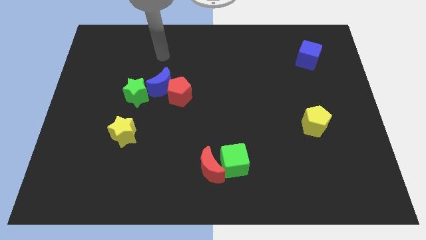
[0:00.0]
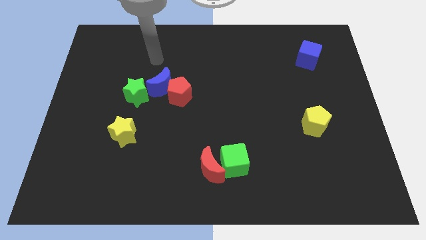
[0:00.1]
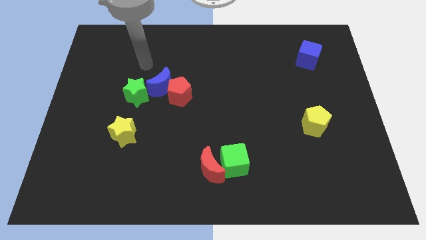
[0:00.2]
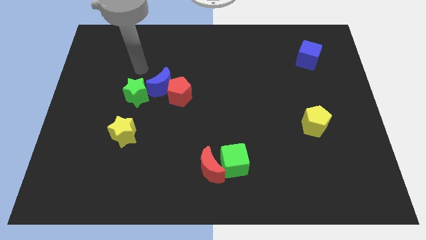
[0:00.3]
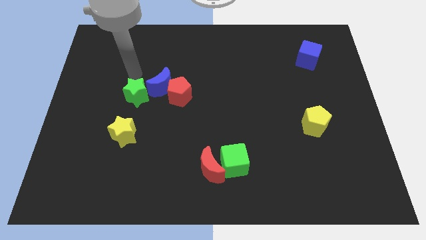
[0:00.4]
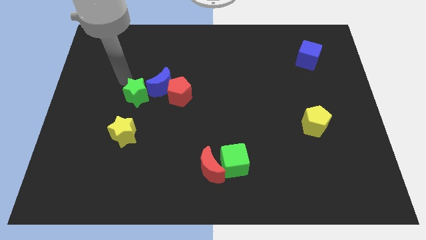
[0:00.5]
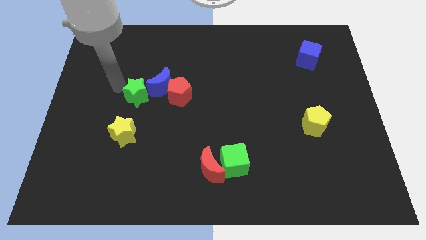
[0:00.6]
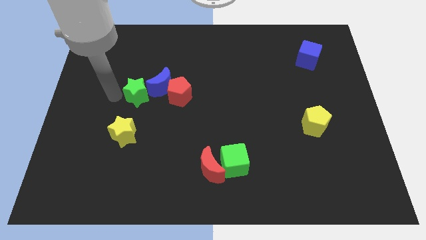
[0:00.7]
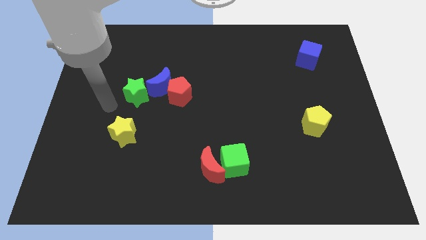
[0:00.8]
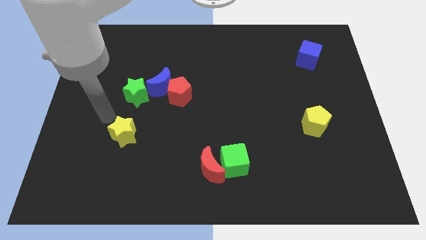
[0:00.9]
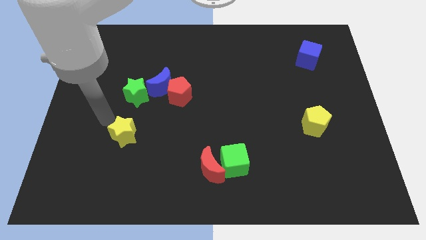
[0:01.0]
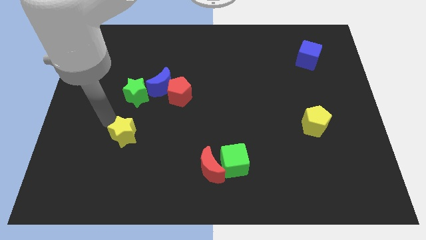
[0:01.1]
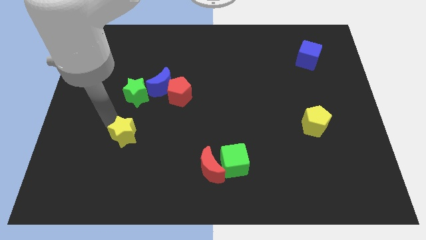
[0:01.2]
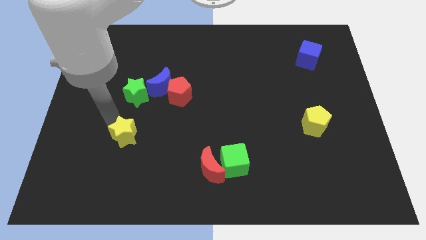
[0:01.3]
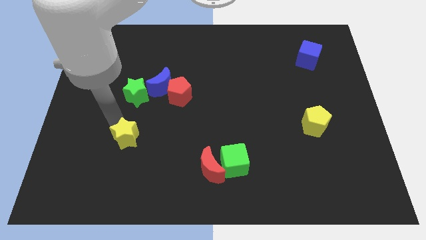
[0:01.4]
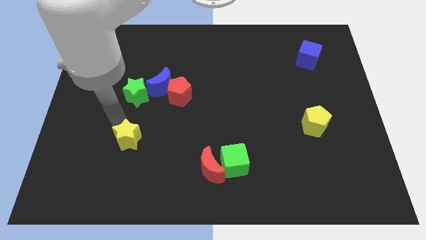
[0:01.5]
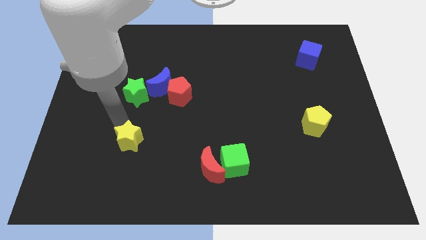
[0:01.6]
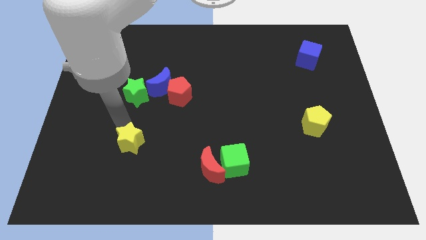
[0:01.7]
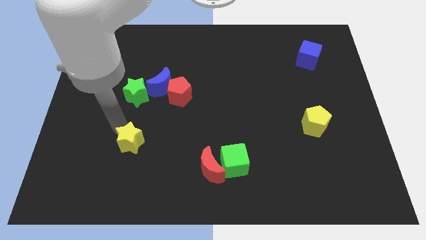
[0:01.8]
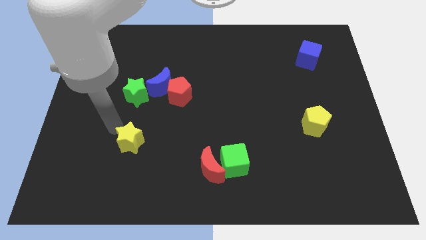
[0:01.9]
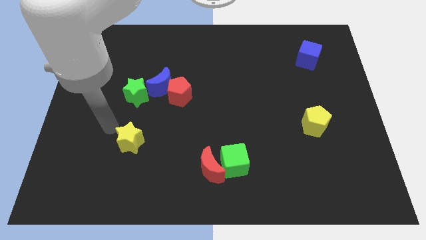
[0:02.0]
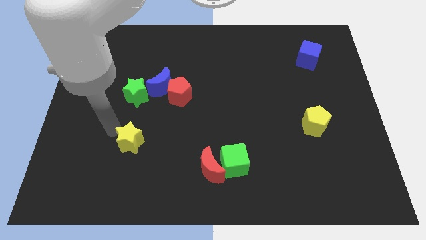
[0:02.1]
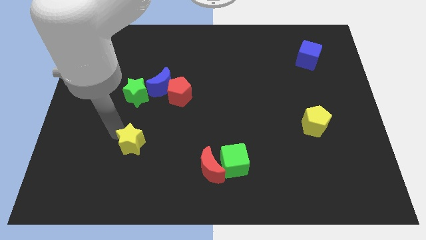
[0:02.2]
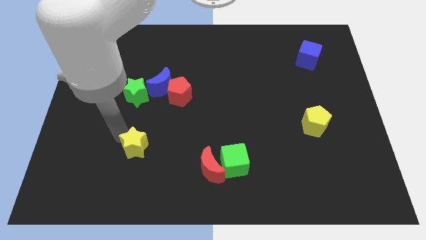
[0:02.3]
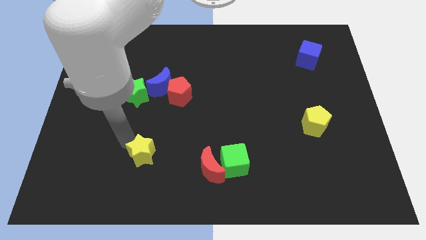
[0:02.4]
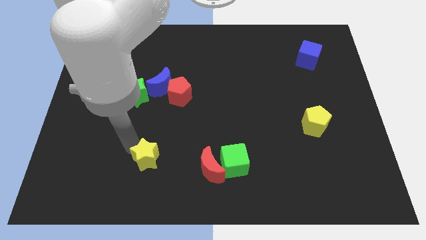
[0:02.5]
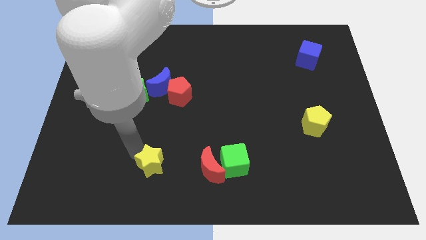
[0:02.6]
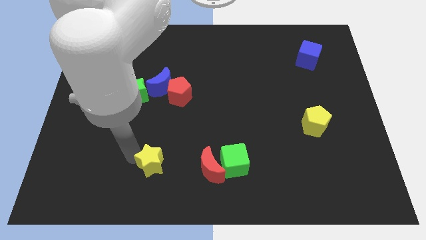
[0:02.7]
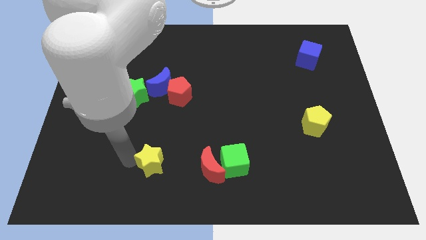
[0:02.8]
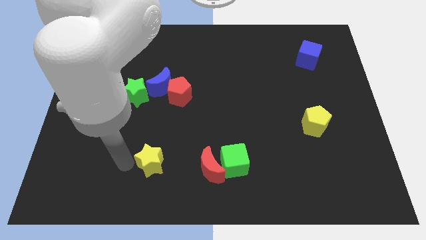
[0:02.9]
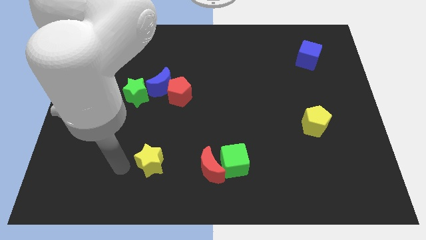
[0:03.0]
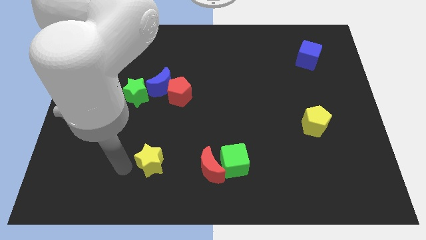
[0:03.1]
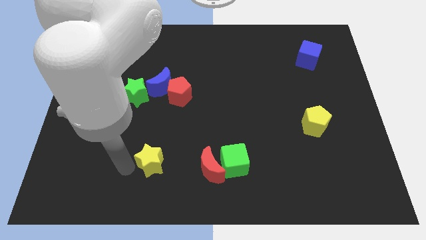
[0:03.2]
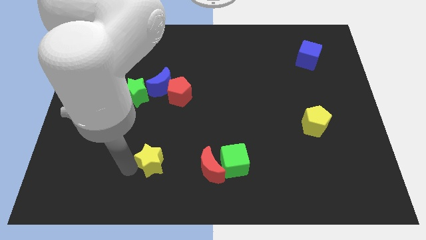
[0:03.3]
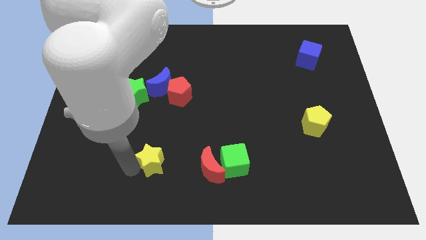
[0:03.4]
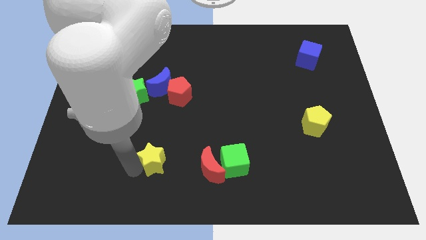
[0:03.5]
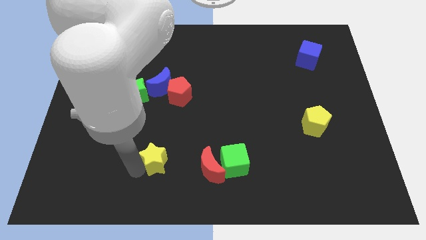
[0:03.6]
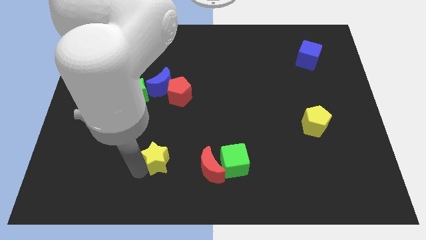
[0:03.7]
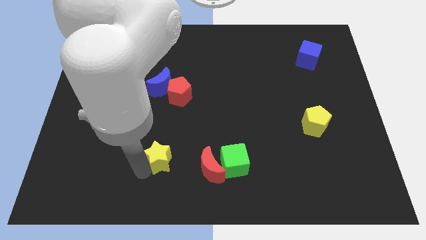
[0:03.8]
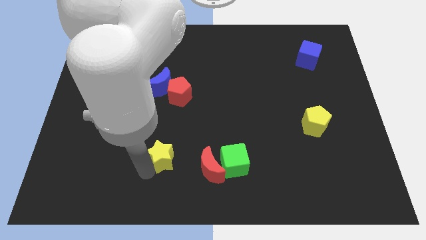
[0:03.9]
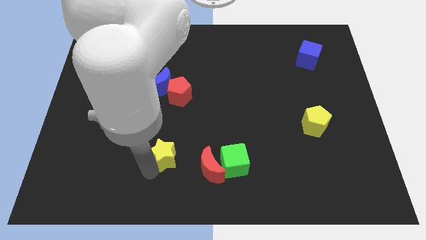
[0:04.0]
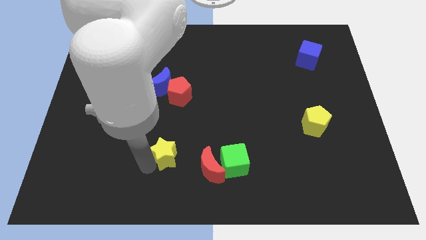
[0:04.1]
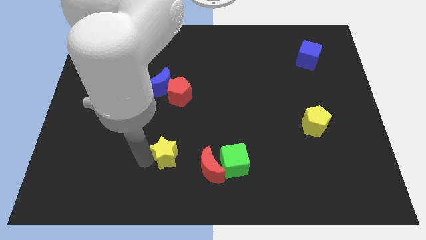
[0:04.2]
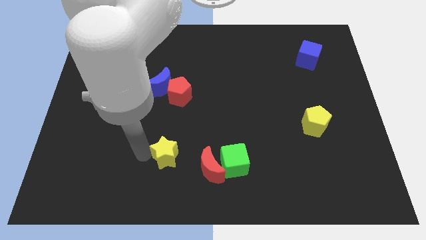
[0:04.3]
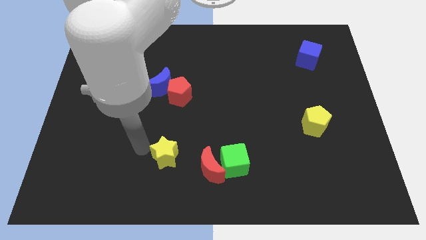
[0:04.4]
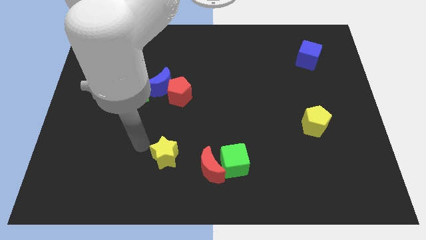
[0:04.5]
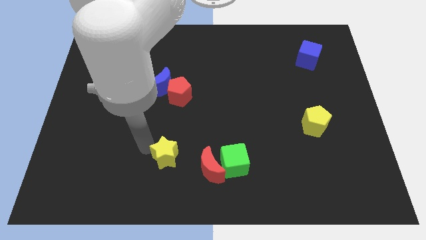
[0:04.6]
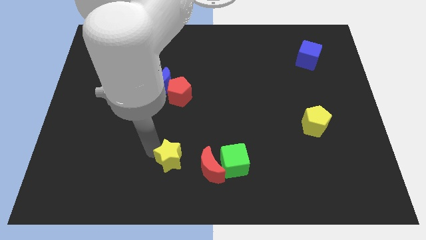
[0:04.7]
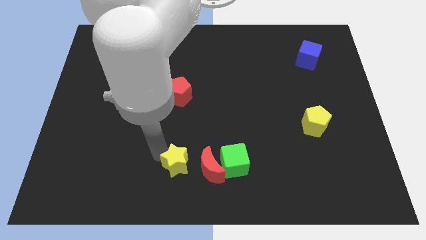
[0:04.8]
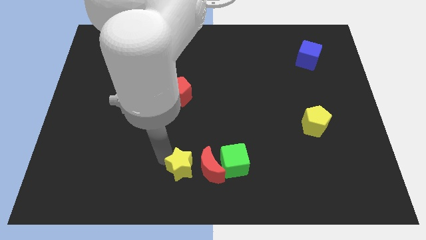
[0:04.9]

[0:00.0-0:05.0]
push the yellow star towards the red moon

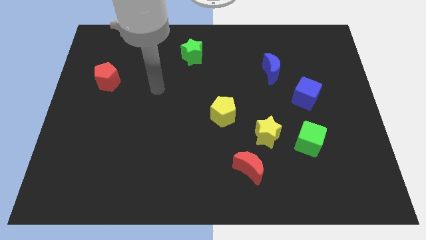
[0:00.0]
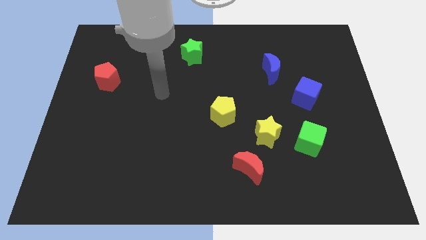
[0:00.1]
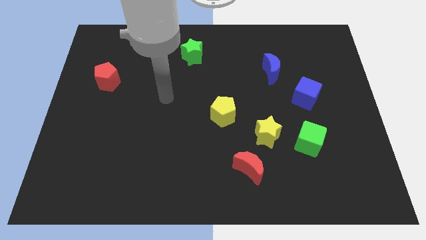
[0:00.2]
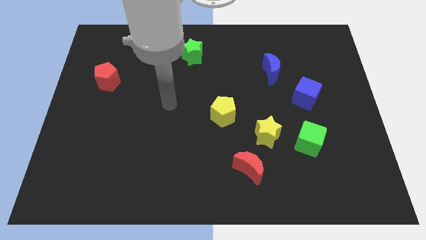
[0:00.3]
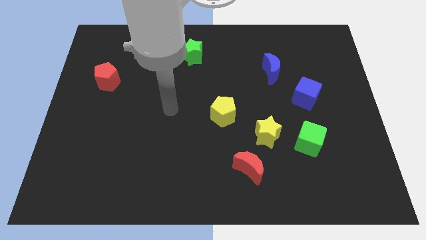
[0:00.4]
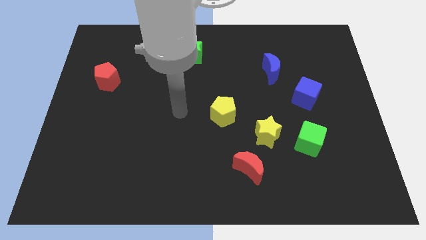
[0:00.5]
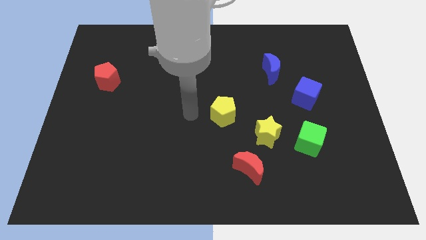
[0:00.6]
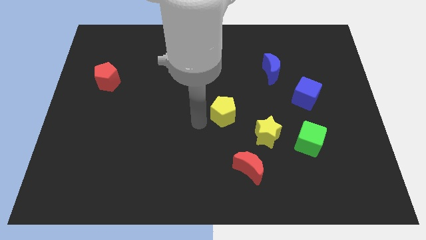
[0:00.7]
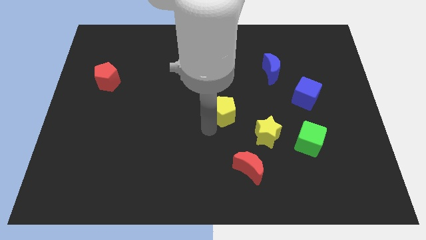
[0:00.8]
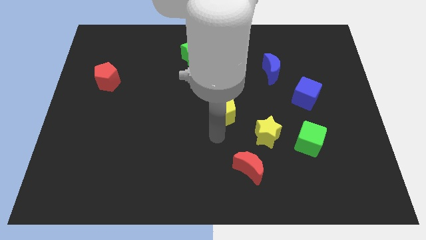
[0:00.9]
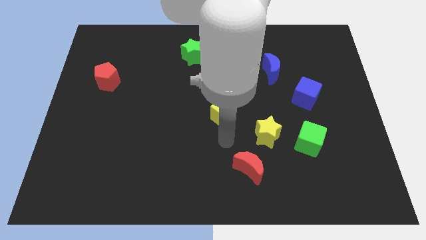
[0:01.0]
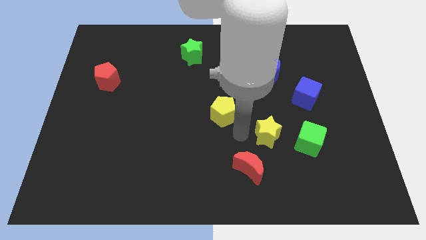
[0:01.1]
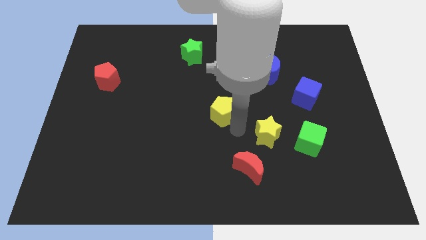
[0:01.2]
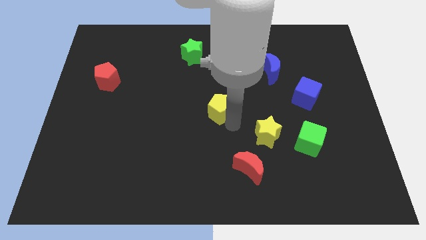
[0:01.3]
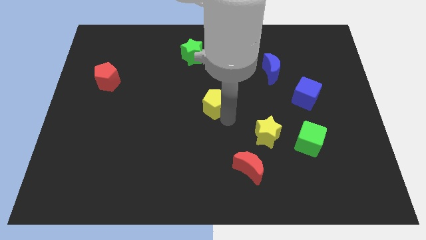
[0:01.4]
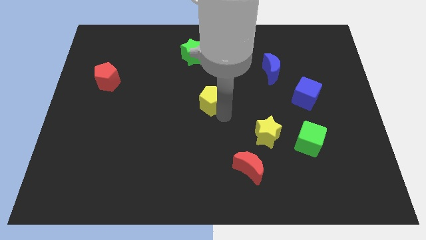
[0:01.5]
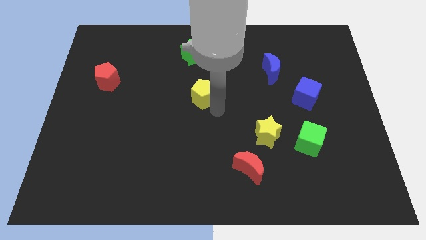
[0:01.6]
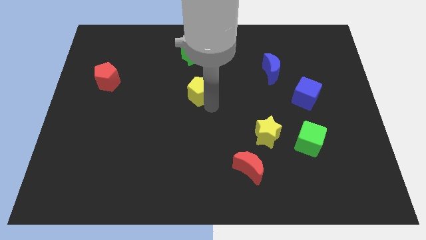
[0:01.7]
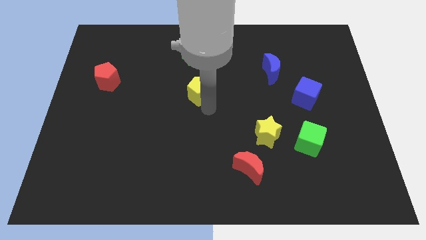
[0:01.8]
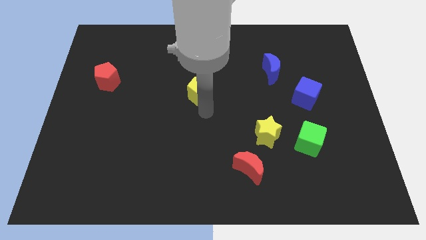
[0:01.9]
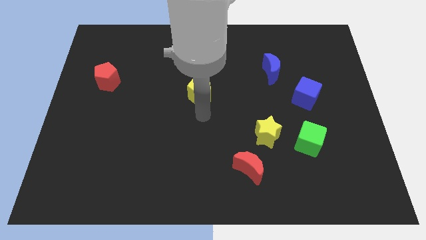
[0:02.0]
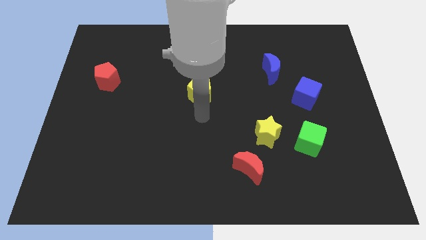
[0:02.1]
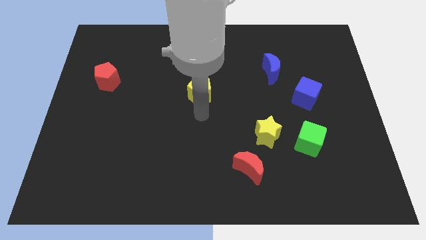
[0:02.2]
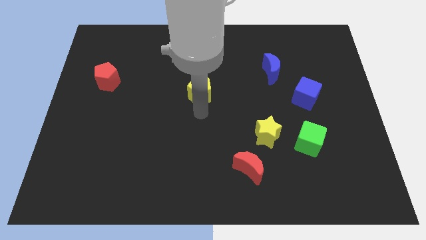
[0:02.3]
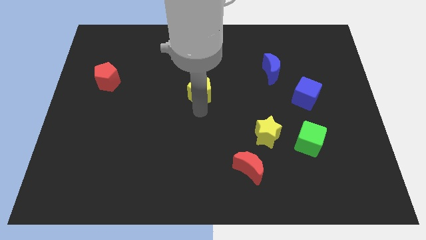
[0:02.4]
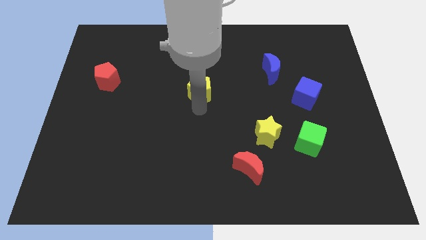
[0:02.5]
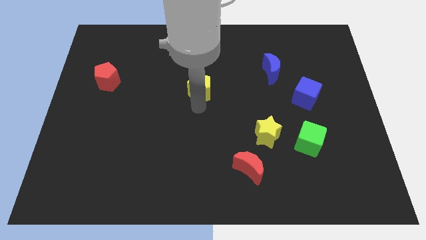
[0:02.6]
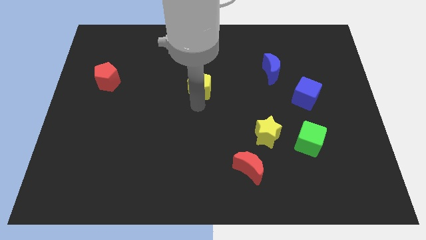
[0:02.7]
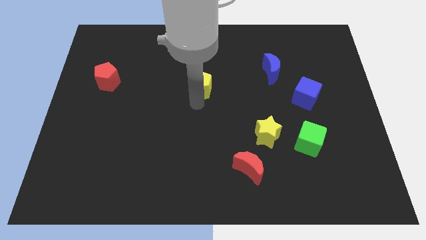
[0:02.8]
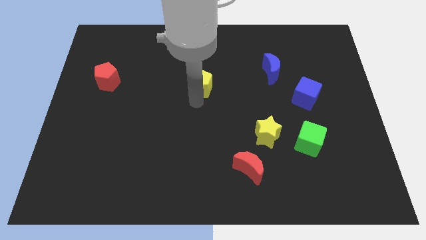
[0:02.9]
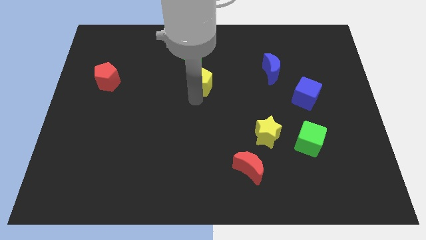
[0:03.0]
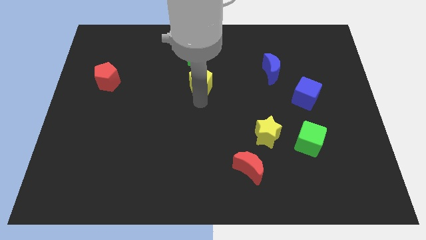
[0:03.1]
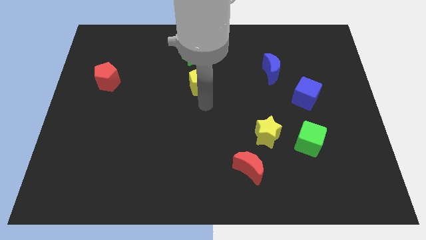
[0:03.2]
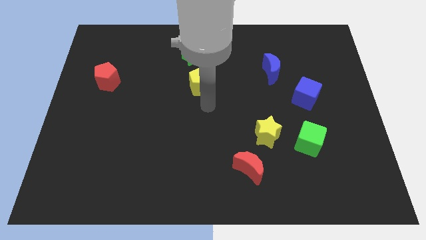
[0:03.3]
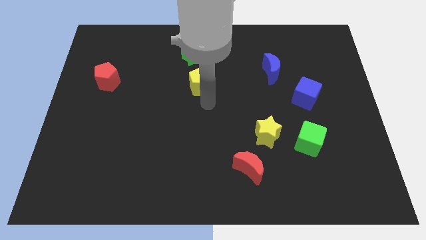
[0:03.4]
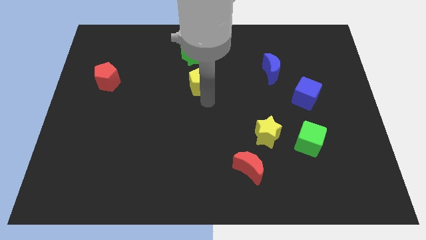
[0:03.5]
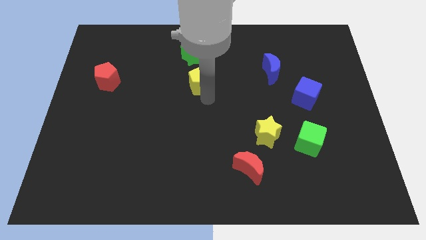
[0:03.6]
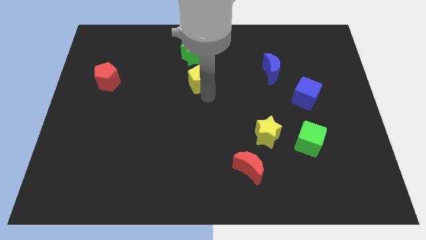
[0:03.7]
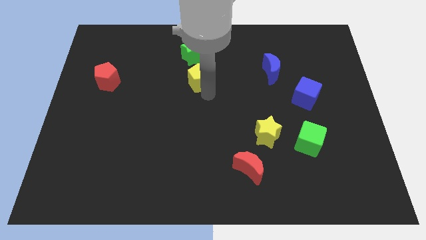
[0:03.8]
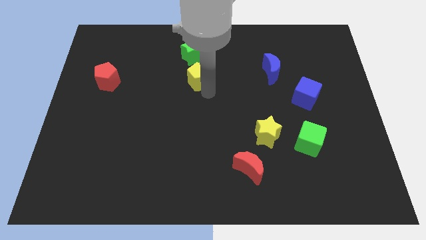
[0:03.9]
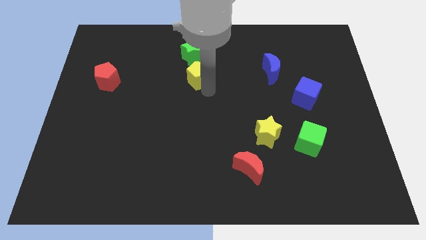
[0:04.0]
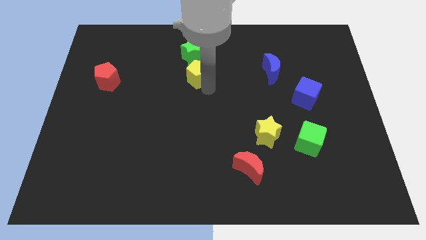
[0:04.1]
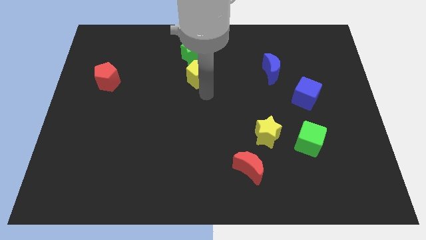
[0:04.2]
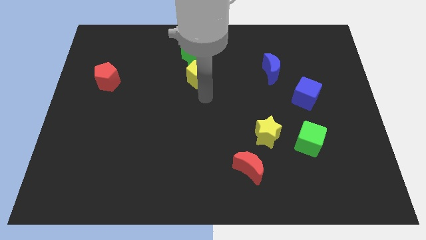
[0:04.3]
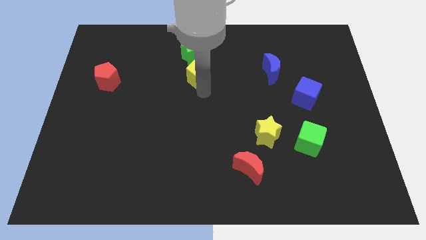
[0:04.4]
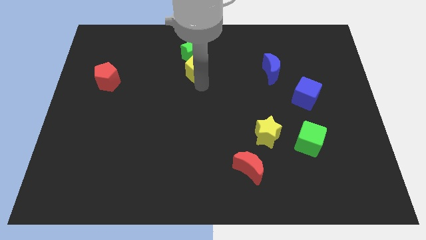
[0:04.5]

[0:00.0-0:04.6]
slide the yellow pentagon close to the green star
